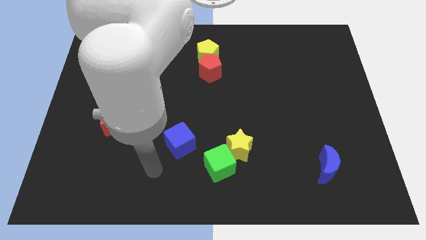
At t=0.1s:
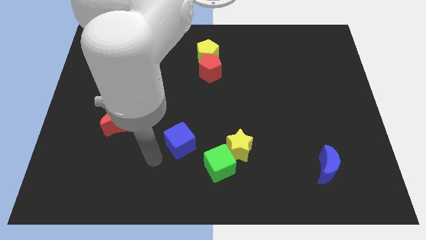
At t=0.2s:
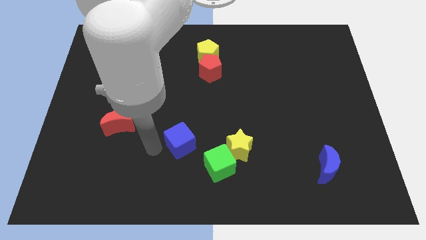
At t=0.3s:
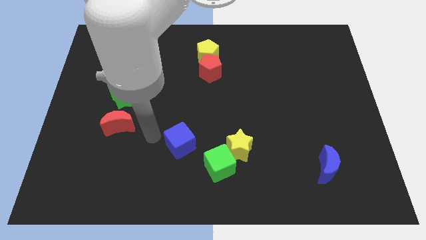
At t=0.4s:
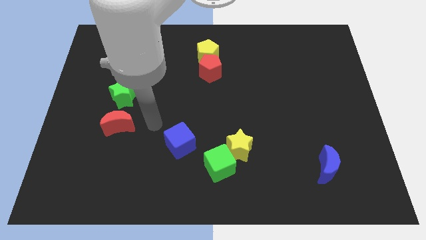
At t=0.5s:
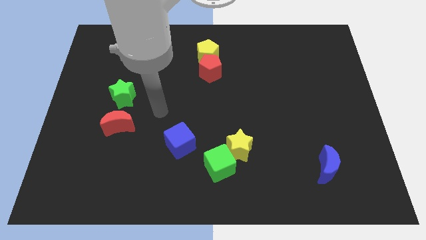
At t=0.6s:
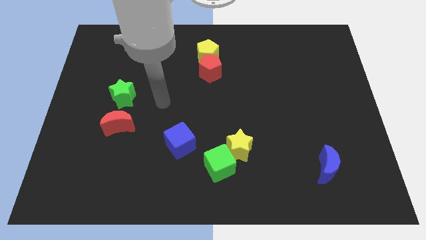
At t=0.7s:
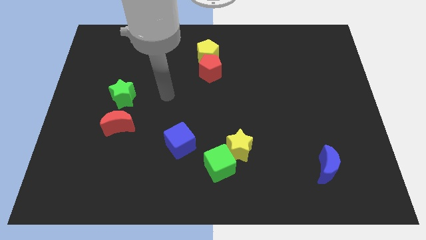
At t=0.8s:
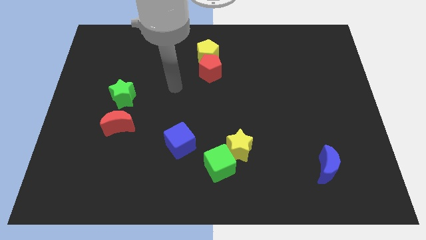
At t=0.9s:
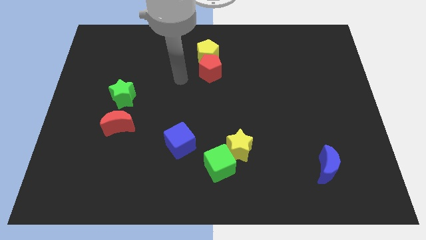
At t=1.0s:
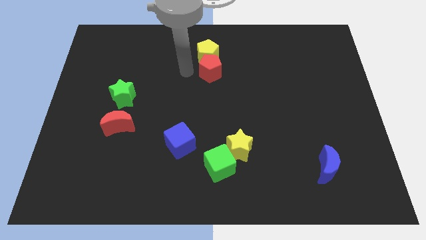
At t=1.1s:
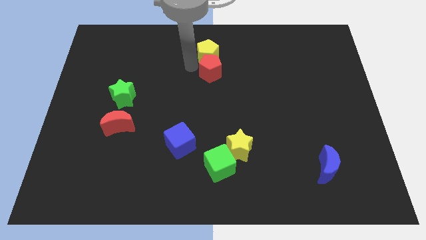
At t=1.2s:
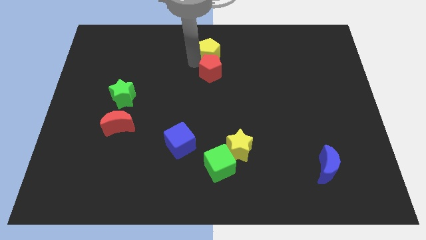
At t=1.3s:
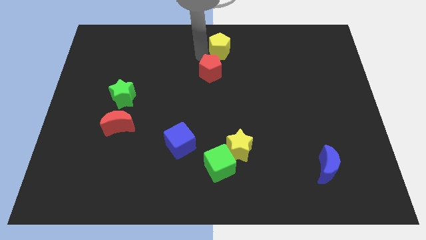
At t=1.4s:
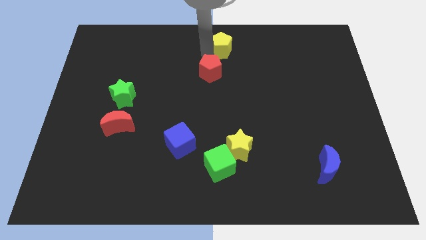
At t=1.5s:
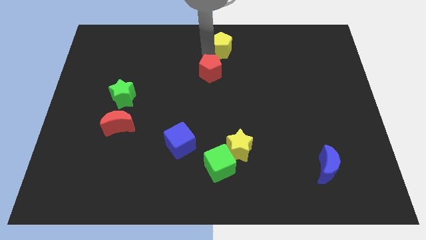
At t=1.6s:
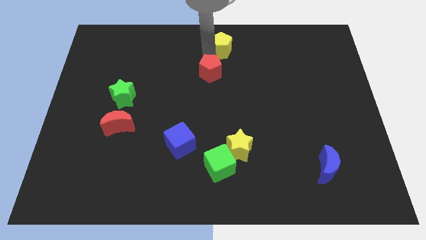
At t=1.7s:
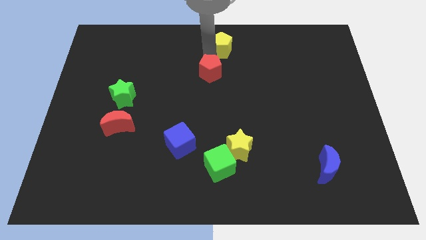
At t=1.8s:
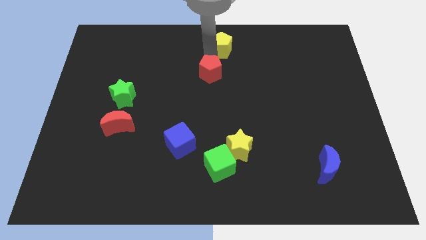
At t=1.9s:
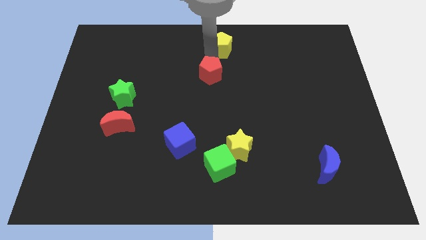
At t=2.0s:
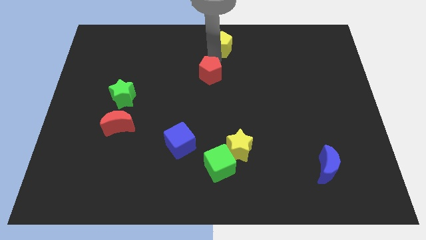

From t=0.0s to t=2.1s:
separate the red pentagon from the yellow pentagon

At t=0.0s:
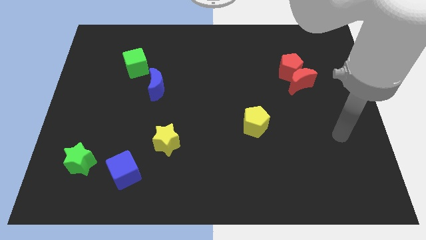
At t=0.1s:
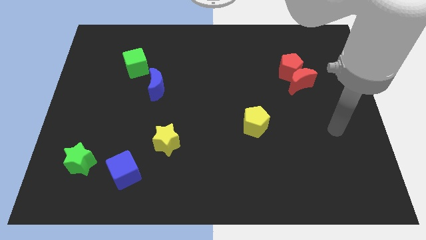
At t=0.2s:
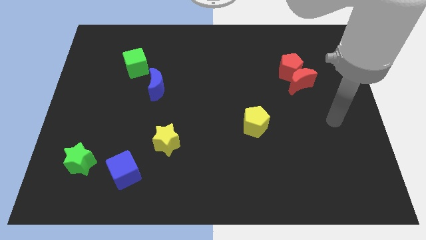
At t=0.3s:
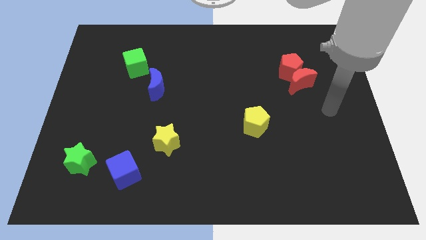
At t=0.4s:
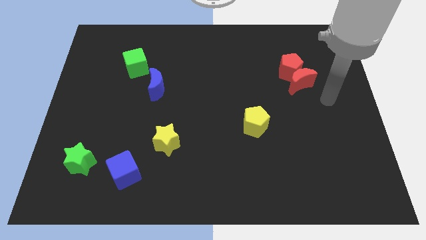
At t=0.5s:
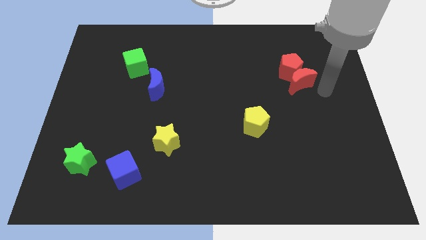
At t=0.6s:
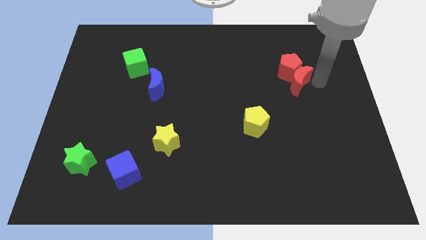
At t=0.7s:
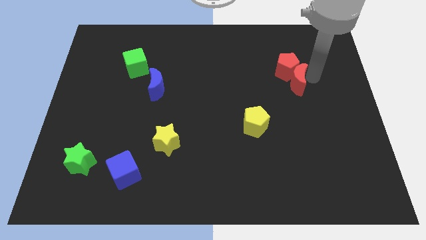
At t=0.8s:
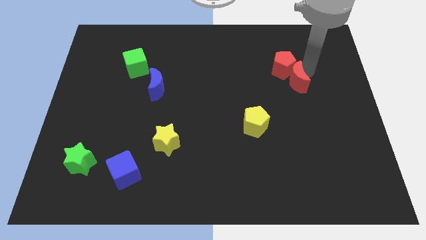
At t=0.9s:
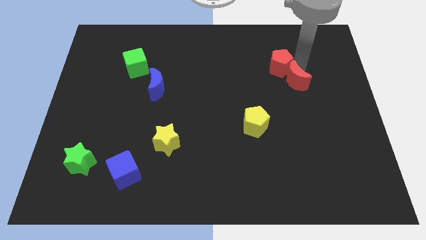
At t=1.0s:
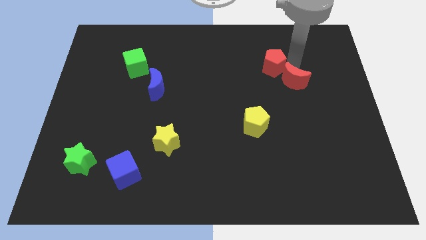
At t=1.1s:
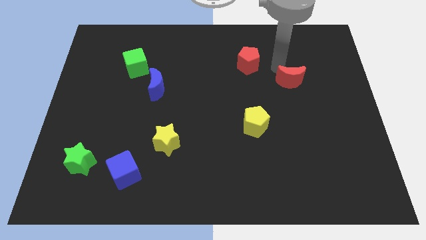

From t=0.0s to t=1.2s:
move the red moon away from the red pentagon

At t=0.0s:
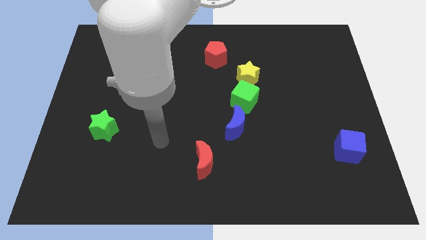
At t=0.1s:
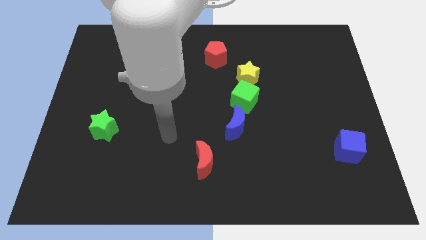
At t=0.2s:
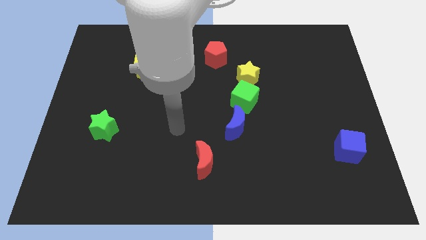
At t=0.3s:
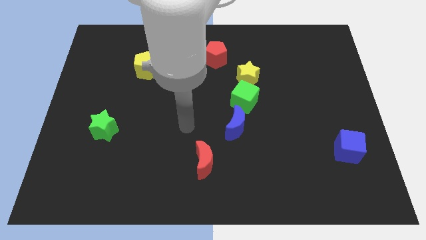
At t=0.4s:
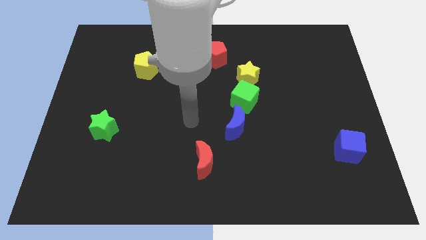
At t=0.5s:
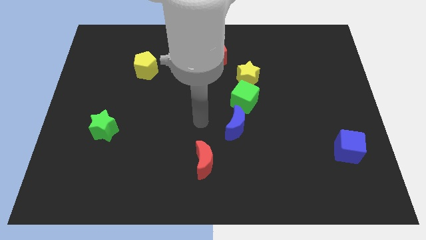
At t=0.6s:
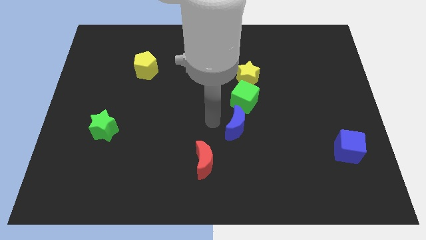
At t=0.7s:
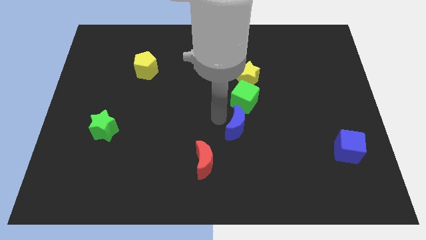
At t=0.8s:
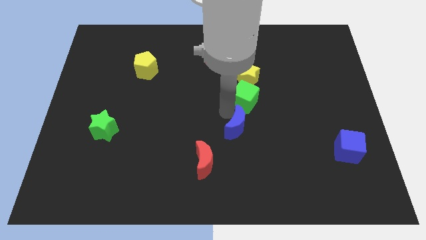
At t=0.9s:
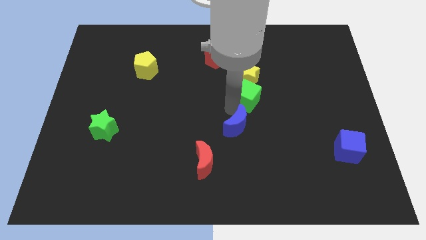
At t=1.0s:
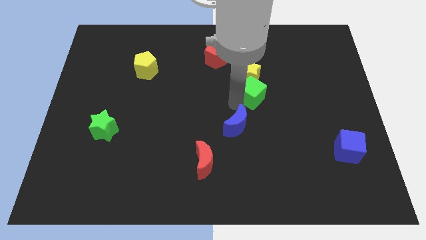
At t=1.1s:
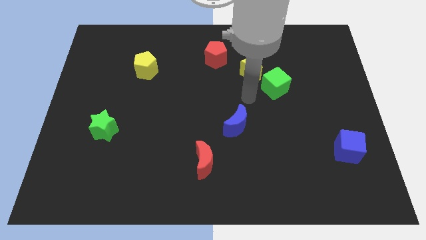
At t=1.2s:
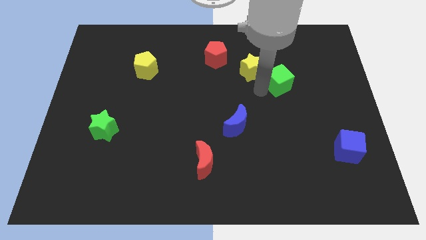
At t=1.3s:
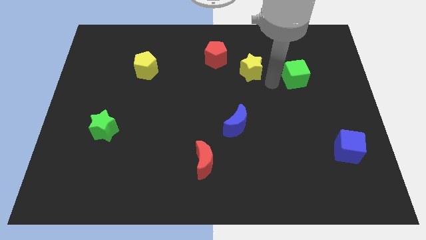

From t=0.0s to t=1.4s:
move the yellow star away from the green cube

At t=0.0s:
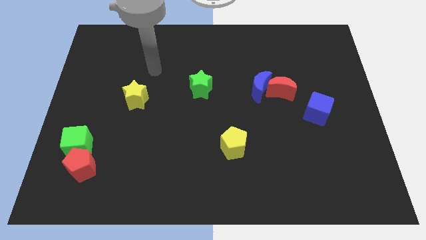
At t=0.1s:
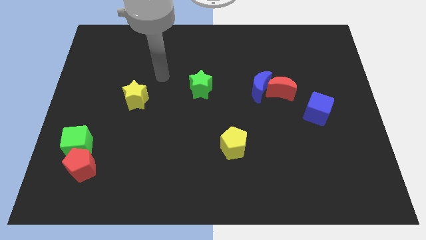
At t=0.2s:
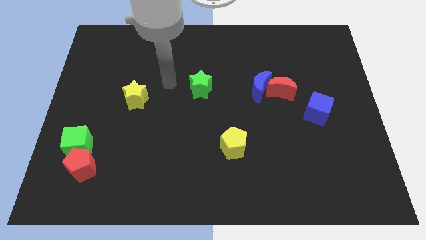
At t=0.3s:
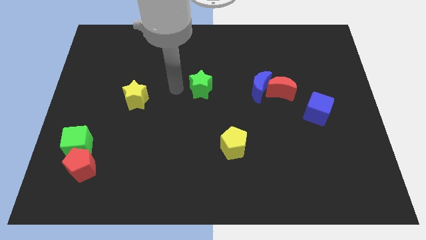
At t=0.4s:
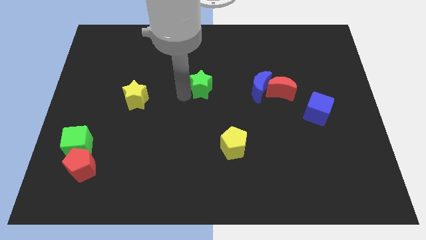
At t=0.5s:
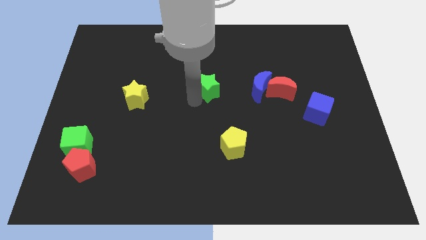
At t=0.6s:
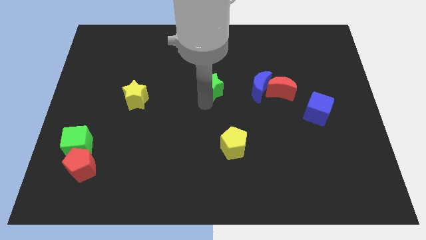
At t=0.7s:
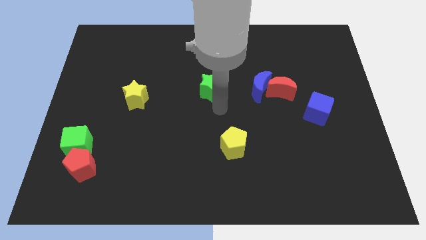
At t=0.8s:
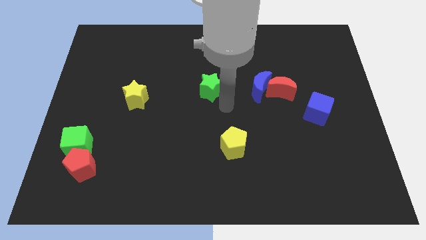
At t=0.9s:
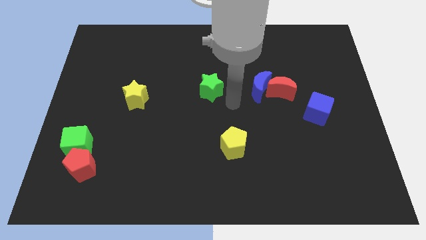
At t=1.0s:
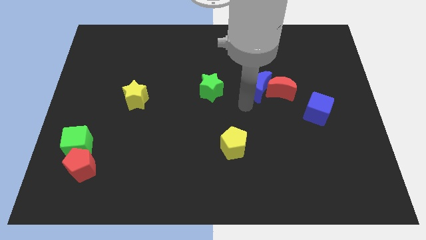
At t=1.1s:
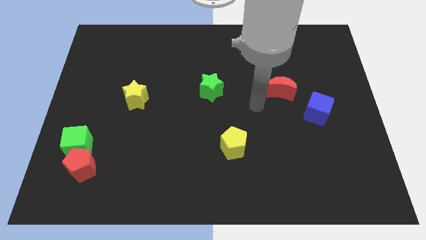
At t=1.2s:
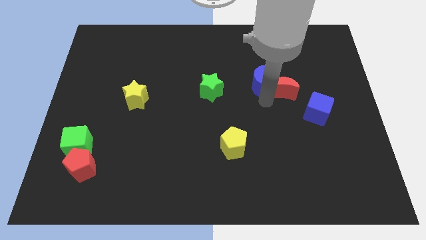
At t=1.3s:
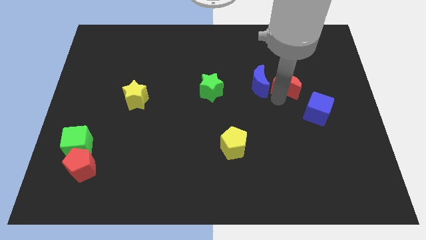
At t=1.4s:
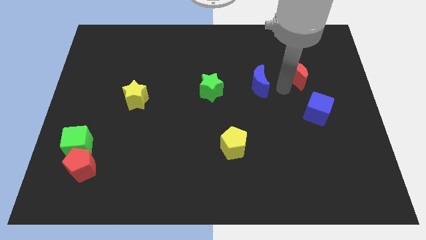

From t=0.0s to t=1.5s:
pull the blue moon apart from the red moon

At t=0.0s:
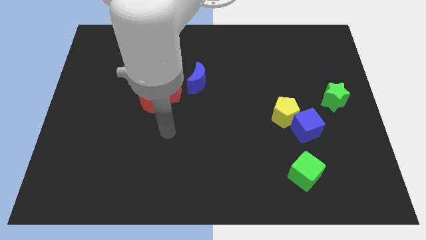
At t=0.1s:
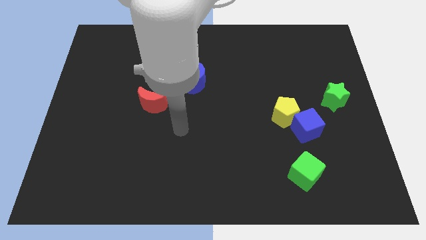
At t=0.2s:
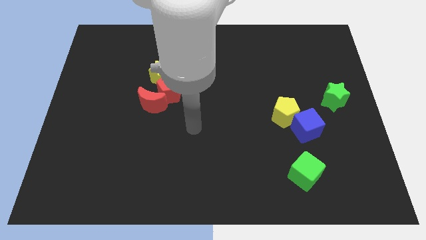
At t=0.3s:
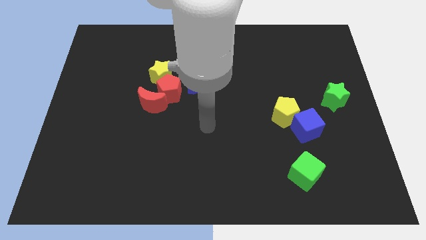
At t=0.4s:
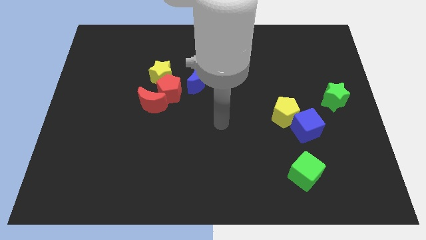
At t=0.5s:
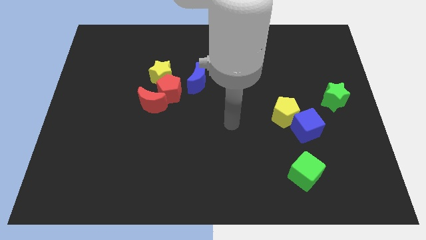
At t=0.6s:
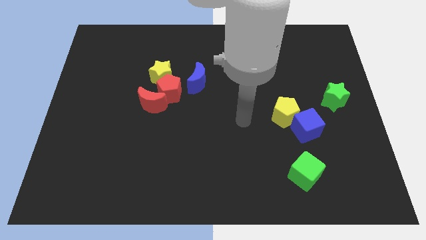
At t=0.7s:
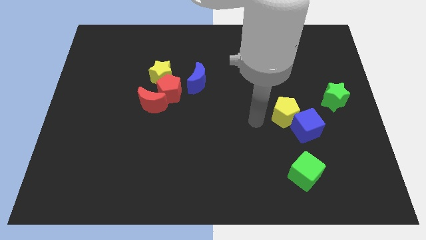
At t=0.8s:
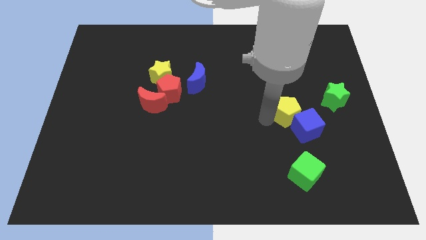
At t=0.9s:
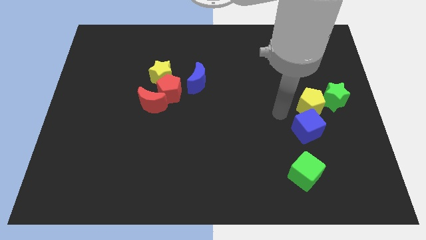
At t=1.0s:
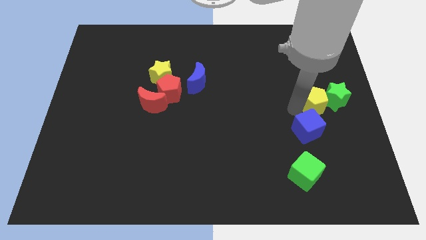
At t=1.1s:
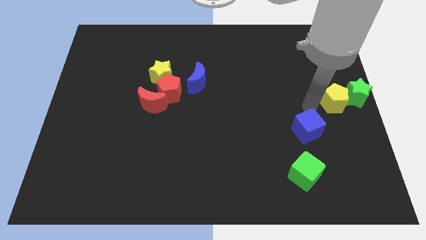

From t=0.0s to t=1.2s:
separate the blue cube from the yellow pentagon

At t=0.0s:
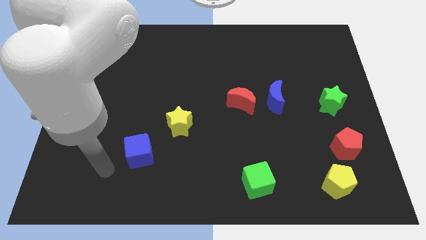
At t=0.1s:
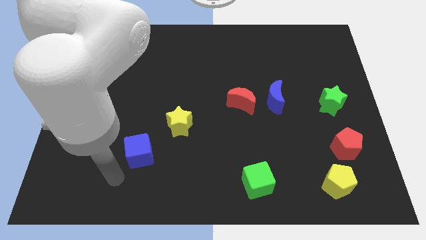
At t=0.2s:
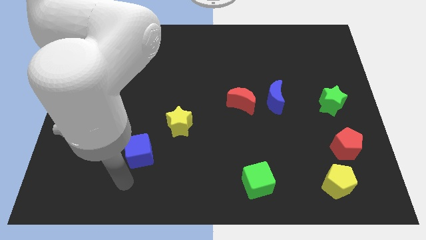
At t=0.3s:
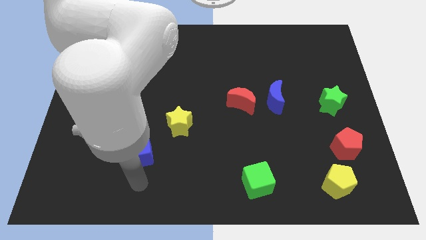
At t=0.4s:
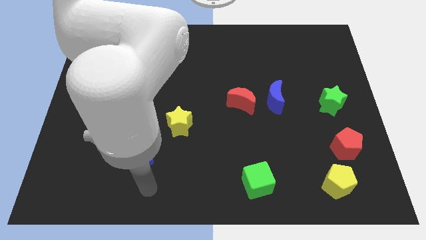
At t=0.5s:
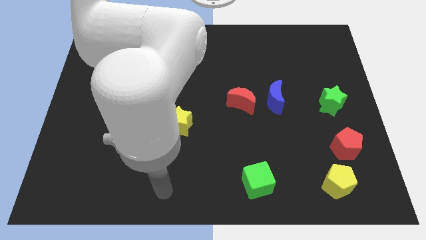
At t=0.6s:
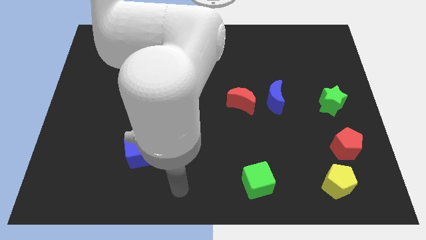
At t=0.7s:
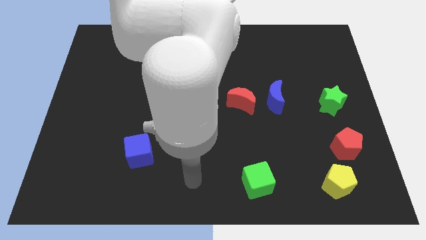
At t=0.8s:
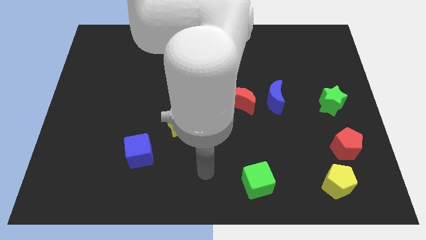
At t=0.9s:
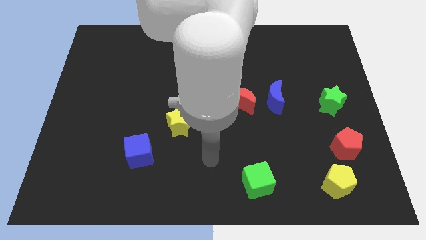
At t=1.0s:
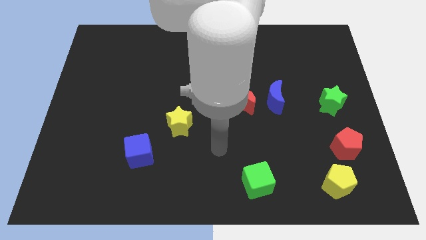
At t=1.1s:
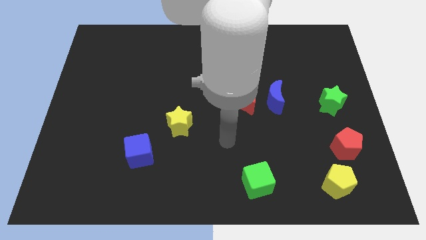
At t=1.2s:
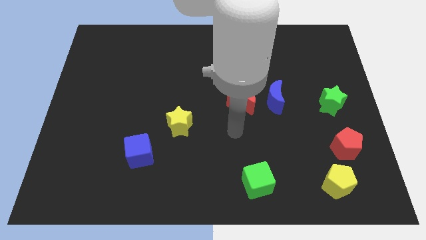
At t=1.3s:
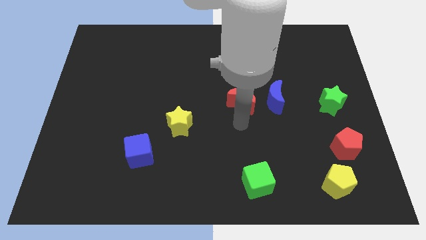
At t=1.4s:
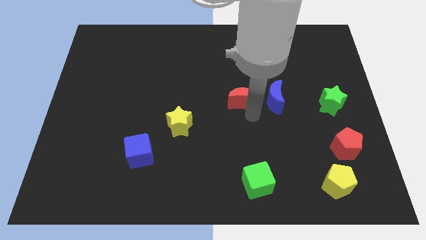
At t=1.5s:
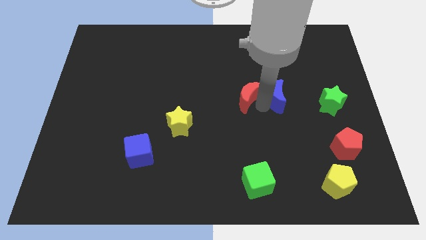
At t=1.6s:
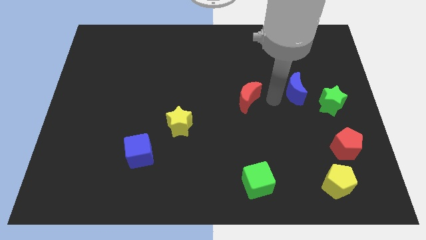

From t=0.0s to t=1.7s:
pull the red moon apart from the blue moon

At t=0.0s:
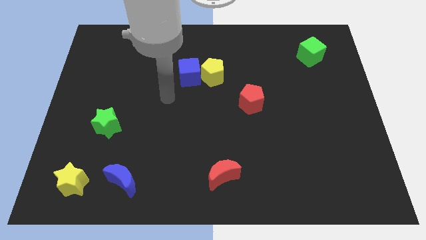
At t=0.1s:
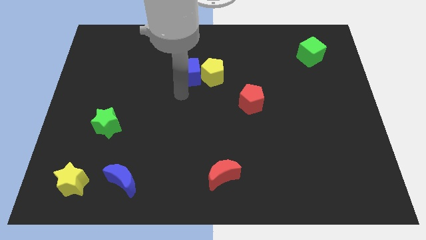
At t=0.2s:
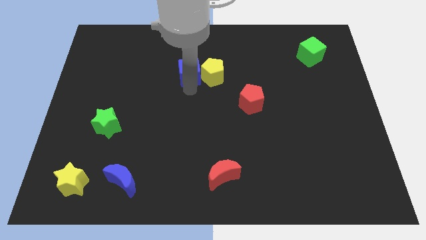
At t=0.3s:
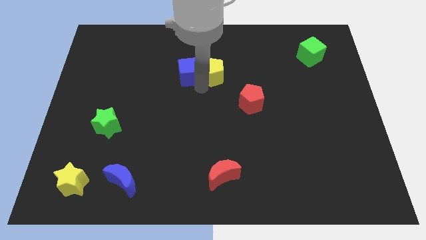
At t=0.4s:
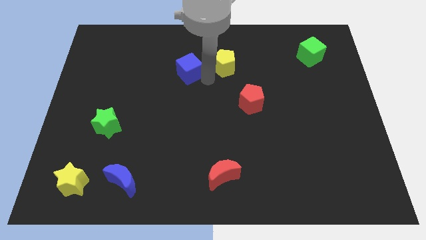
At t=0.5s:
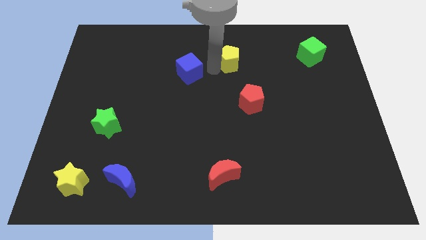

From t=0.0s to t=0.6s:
move the blue cube away from the yellow pentagon
